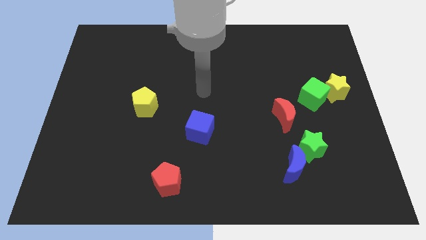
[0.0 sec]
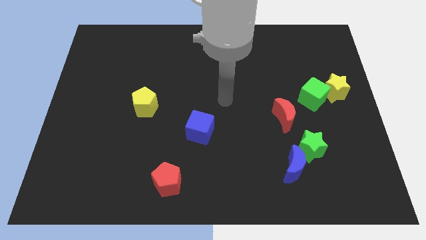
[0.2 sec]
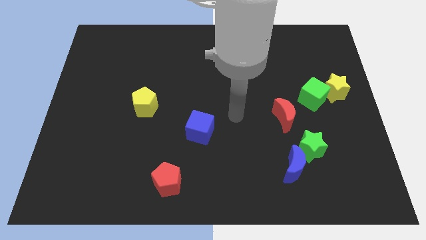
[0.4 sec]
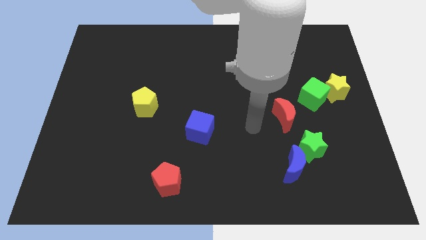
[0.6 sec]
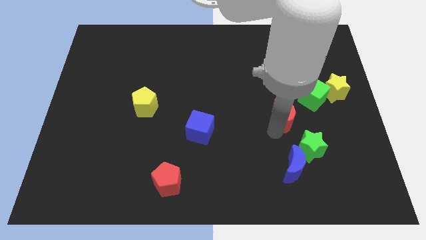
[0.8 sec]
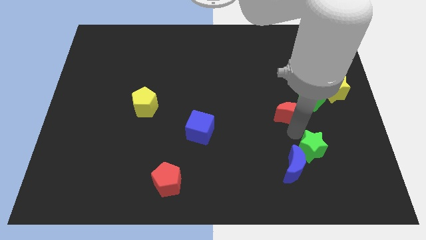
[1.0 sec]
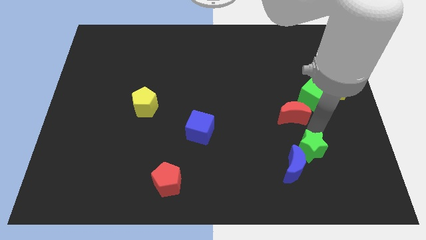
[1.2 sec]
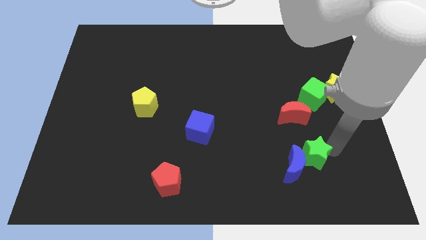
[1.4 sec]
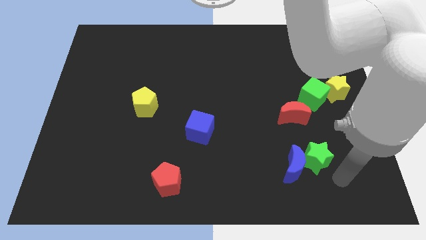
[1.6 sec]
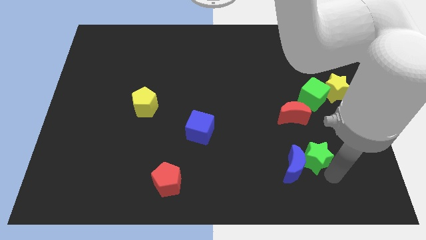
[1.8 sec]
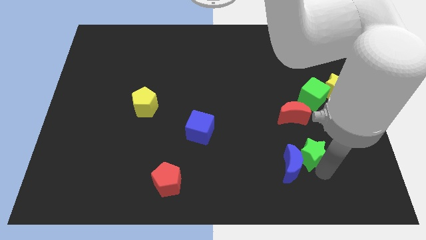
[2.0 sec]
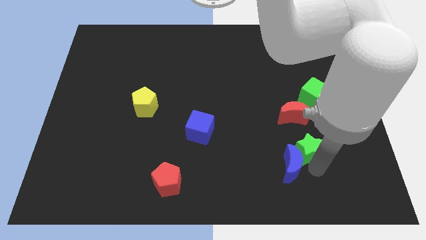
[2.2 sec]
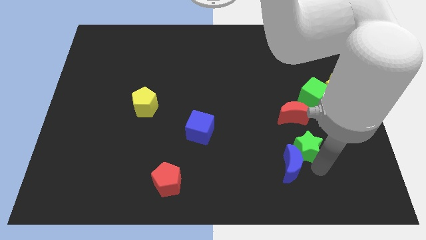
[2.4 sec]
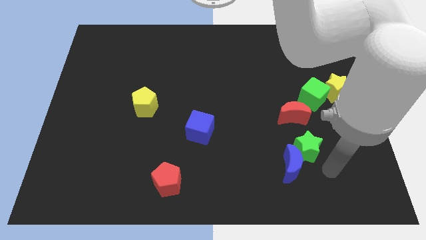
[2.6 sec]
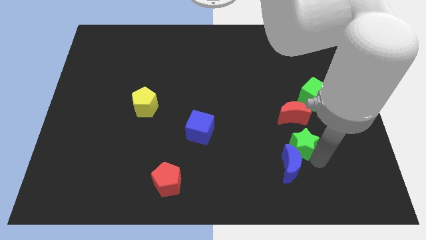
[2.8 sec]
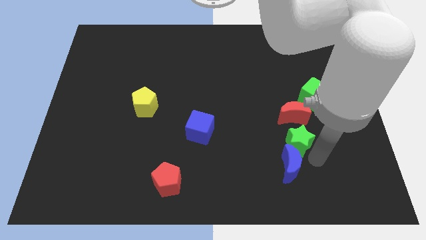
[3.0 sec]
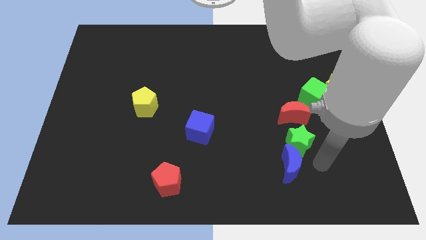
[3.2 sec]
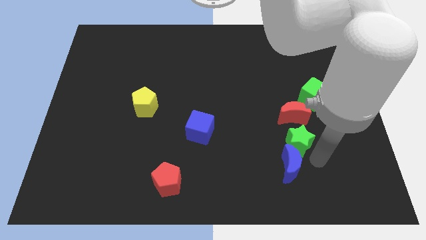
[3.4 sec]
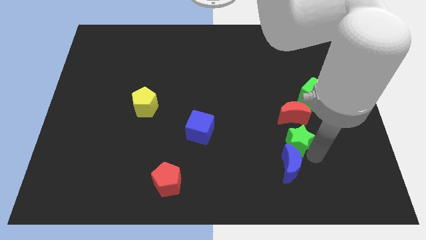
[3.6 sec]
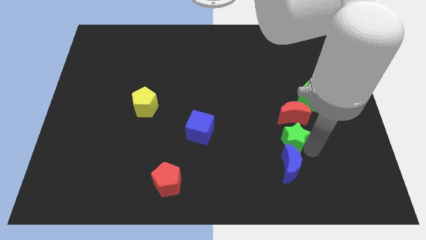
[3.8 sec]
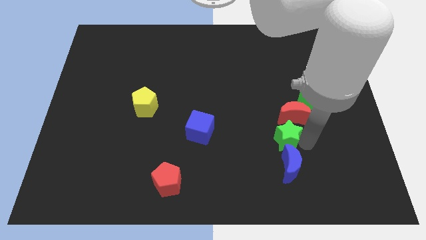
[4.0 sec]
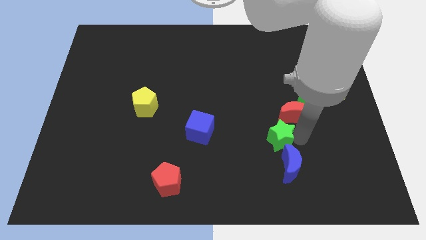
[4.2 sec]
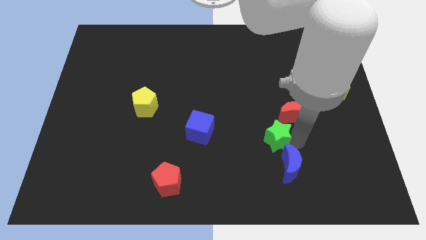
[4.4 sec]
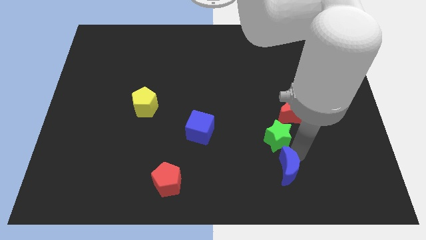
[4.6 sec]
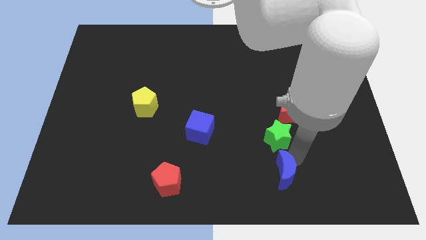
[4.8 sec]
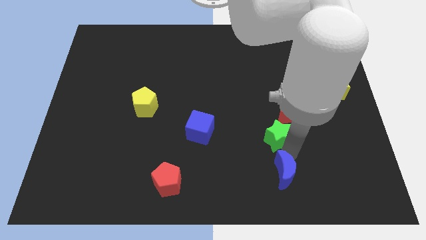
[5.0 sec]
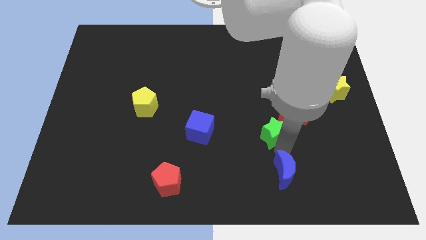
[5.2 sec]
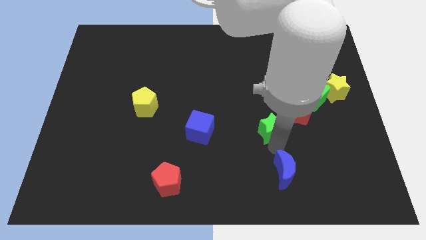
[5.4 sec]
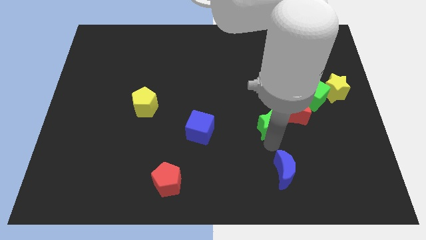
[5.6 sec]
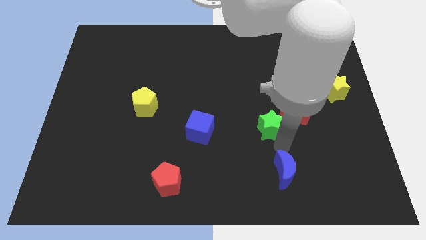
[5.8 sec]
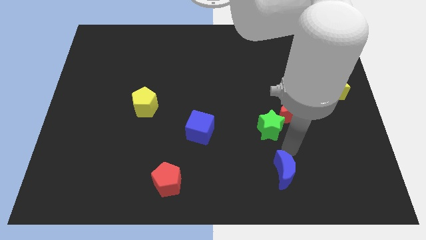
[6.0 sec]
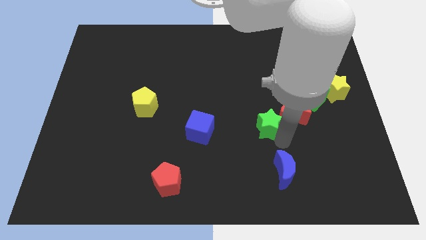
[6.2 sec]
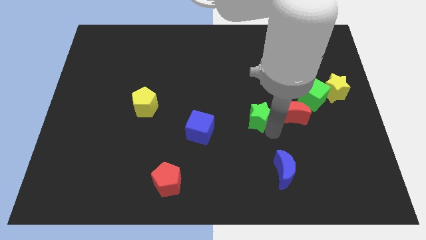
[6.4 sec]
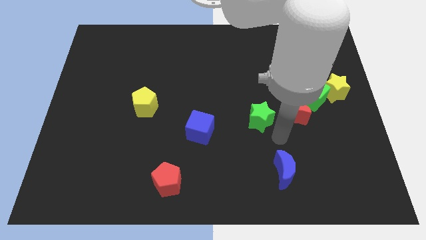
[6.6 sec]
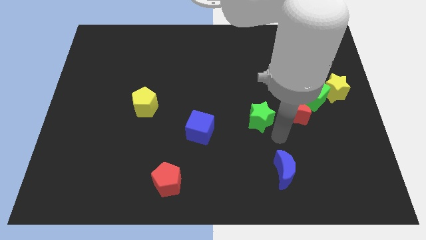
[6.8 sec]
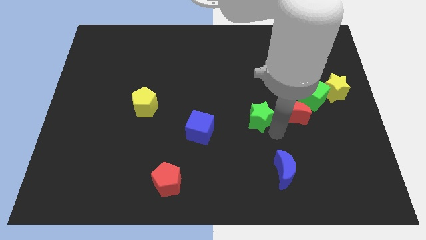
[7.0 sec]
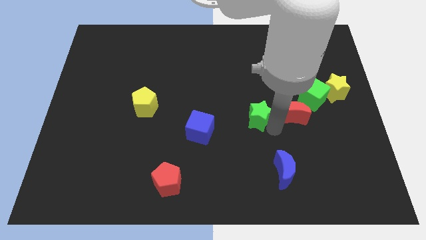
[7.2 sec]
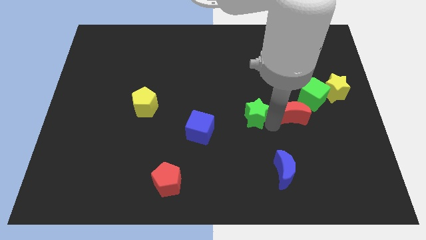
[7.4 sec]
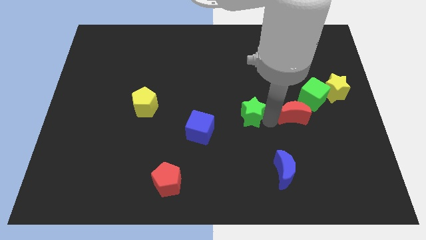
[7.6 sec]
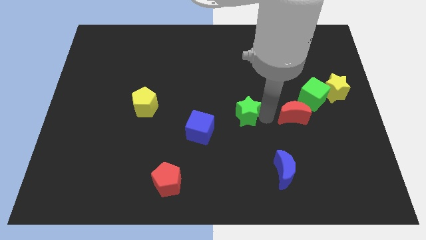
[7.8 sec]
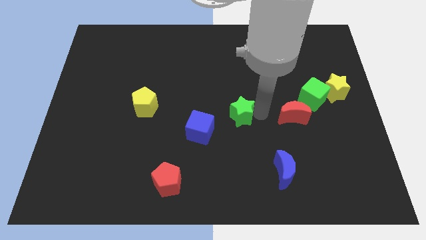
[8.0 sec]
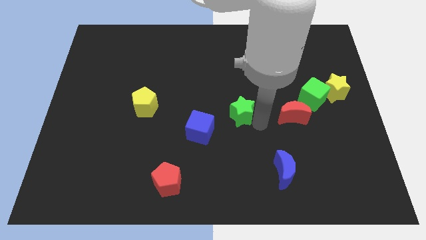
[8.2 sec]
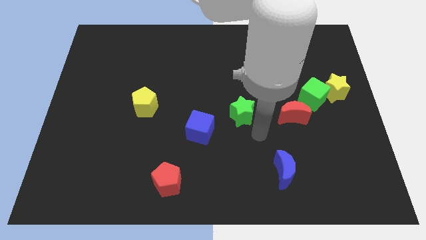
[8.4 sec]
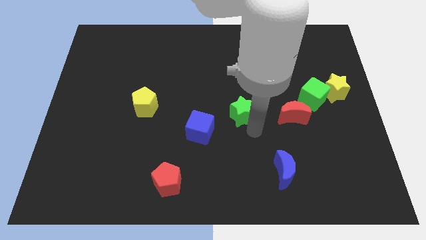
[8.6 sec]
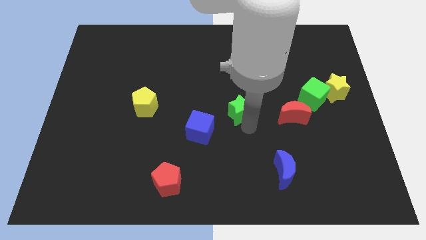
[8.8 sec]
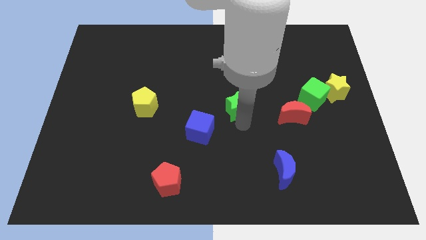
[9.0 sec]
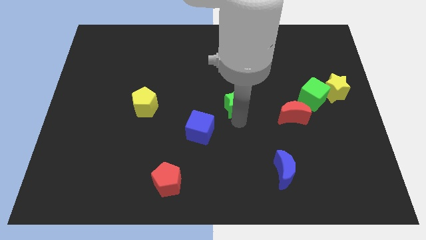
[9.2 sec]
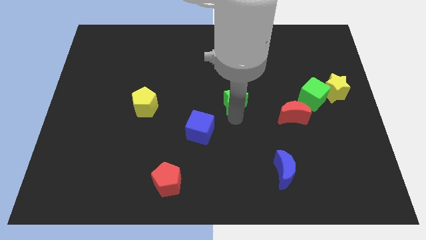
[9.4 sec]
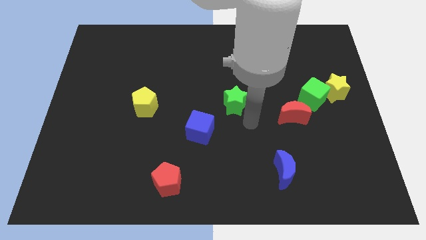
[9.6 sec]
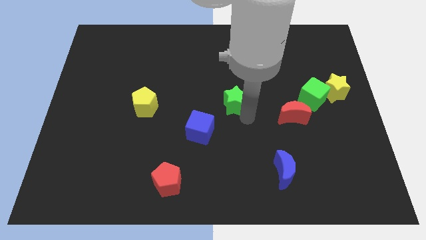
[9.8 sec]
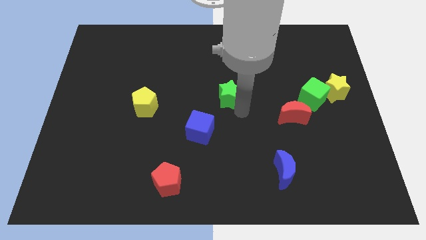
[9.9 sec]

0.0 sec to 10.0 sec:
slide the green star diagonally up and left

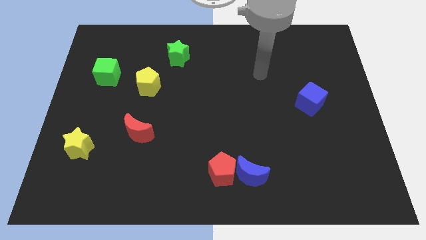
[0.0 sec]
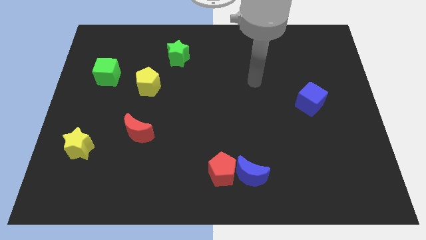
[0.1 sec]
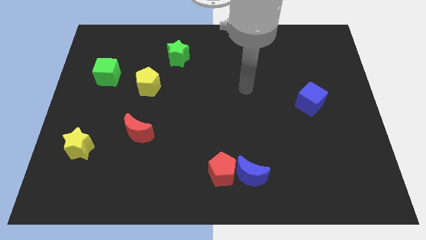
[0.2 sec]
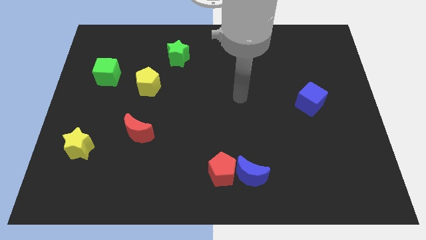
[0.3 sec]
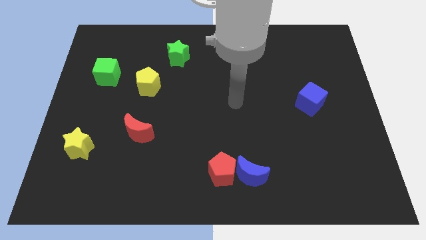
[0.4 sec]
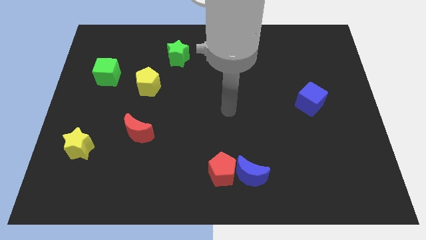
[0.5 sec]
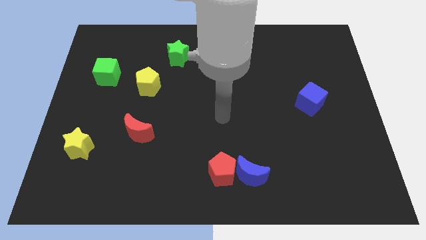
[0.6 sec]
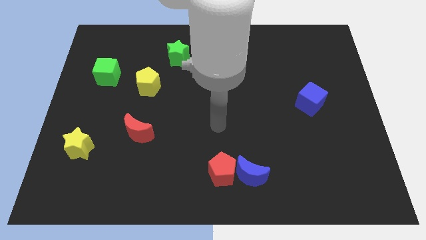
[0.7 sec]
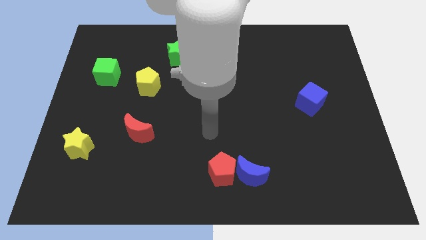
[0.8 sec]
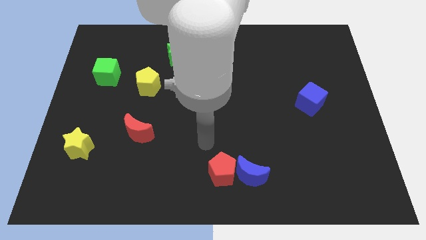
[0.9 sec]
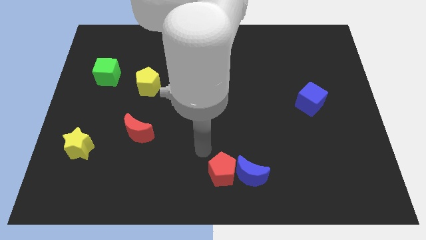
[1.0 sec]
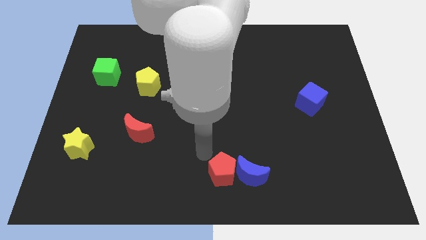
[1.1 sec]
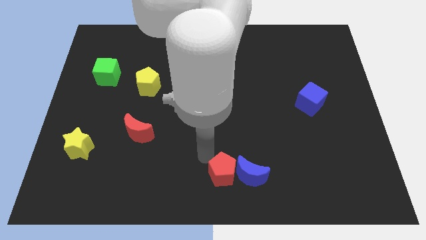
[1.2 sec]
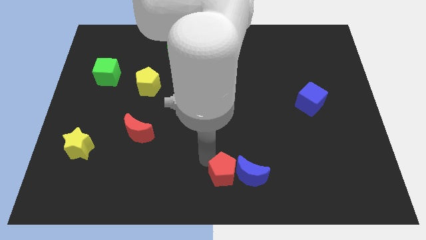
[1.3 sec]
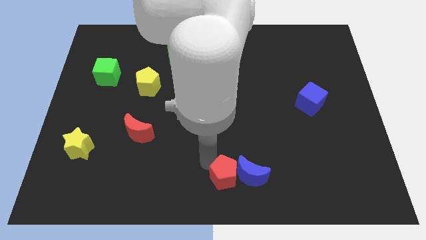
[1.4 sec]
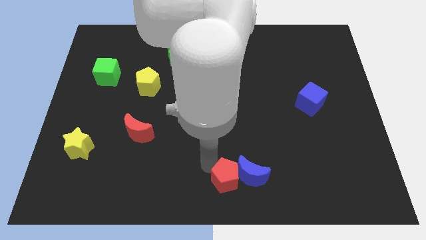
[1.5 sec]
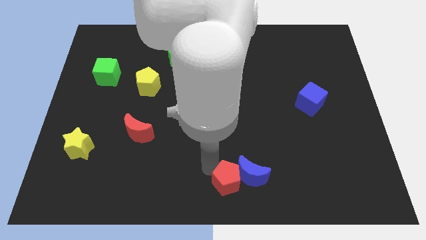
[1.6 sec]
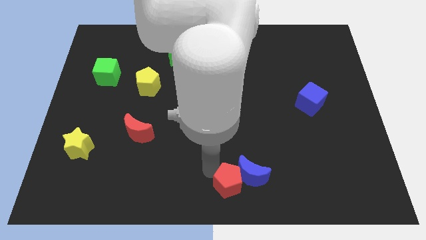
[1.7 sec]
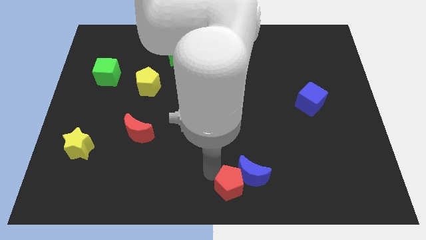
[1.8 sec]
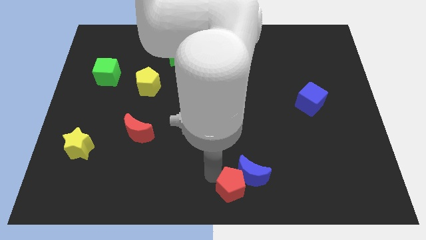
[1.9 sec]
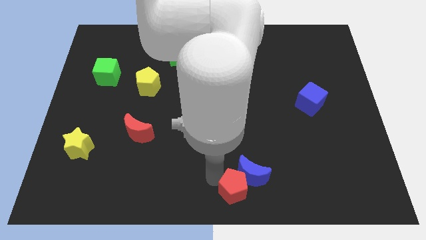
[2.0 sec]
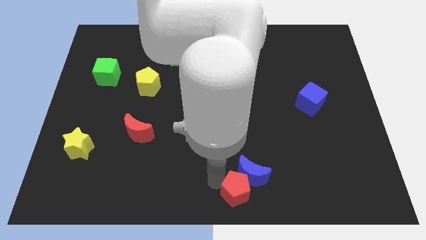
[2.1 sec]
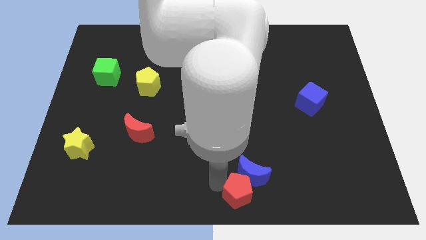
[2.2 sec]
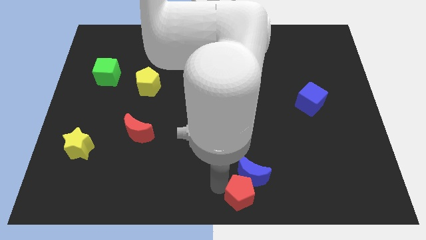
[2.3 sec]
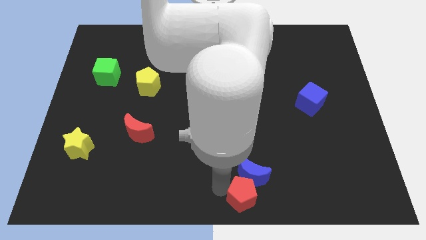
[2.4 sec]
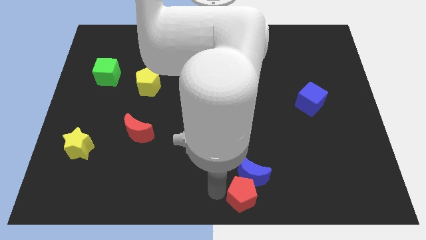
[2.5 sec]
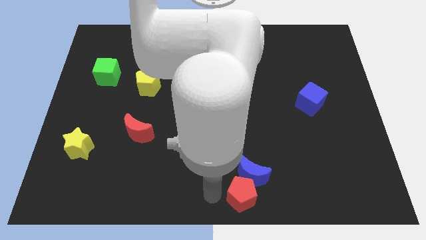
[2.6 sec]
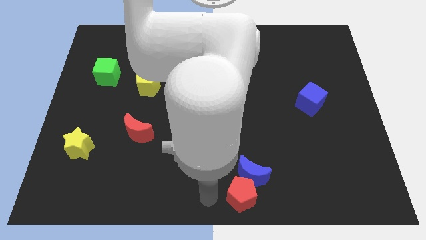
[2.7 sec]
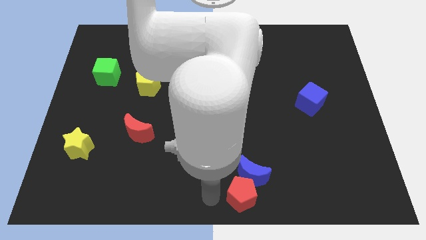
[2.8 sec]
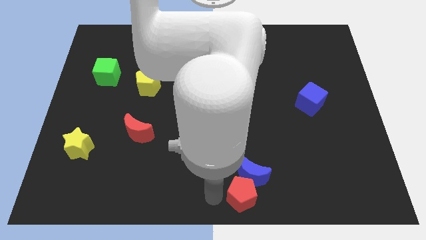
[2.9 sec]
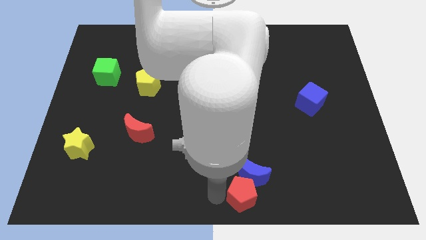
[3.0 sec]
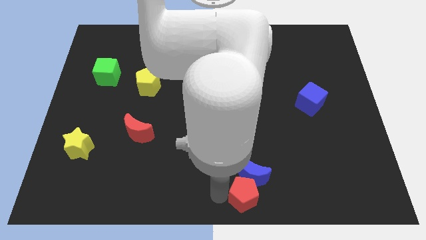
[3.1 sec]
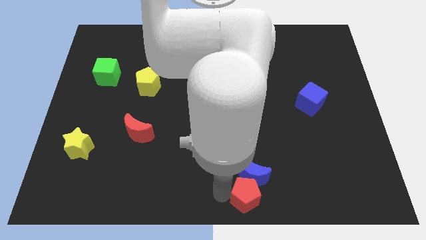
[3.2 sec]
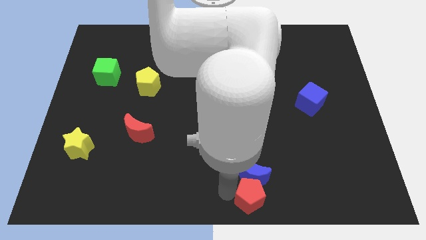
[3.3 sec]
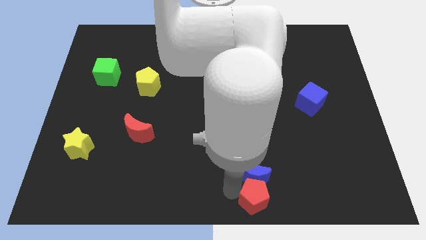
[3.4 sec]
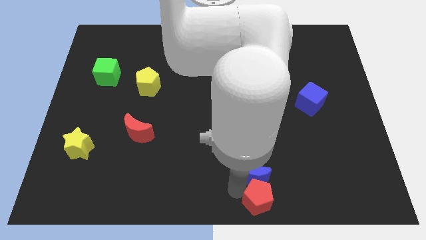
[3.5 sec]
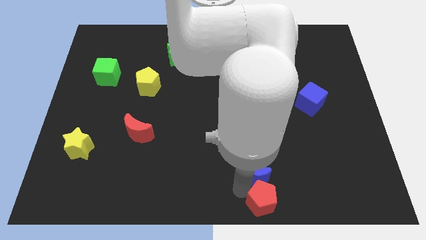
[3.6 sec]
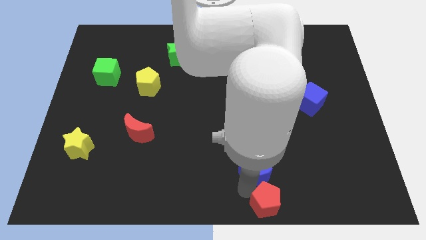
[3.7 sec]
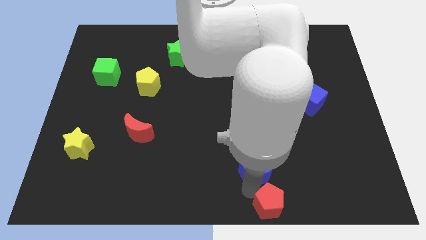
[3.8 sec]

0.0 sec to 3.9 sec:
push the red pentagon to the right somewhat
